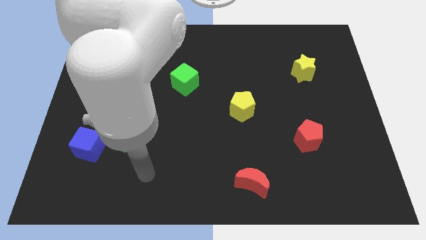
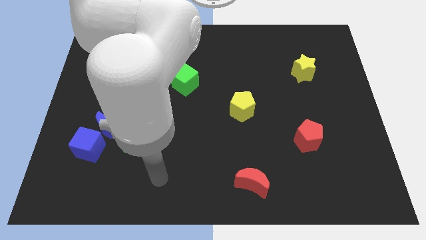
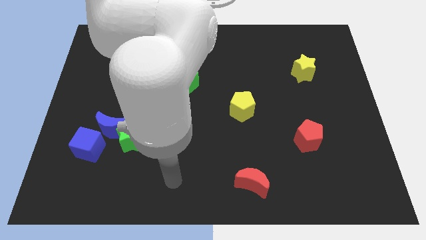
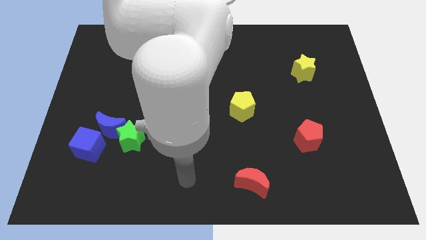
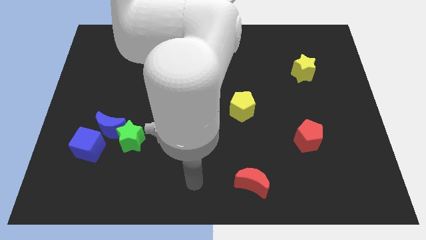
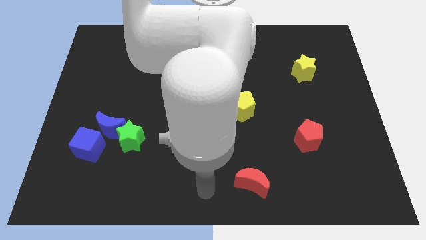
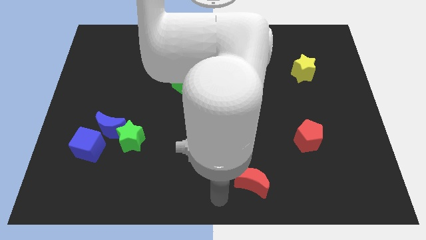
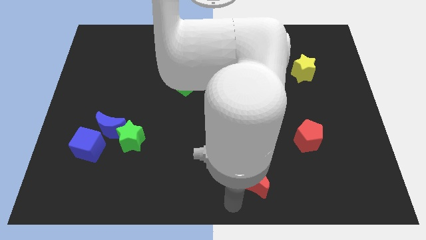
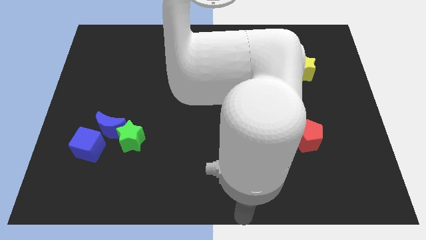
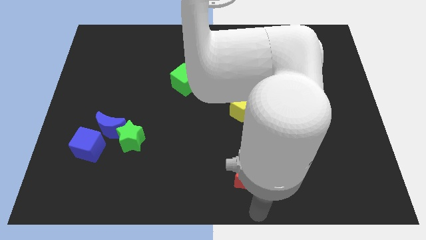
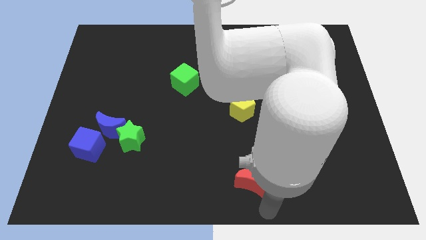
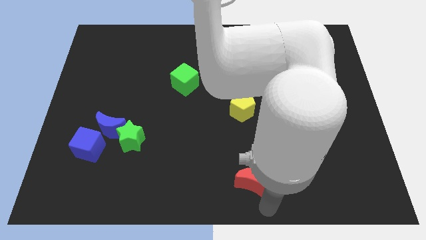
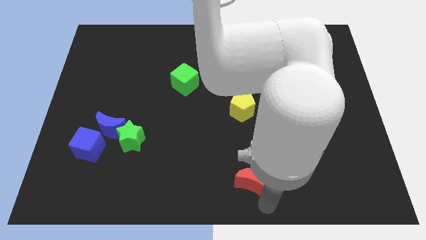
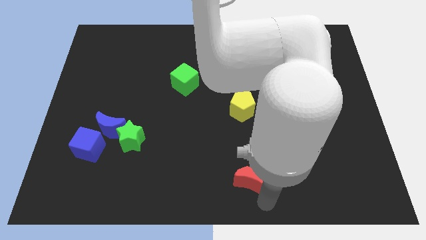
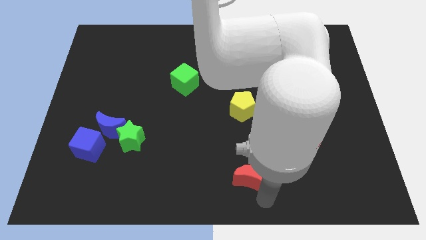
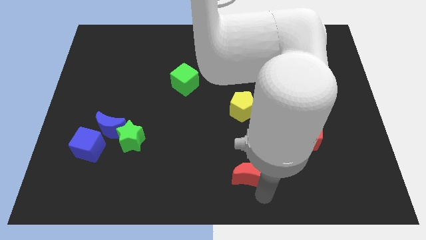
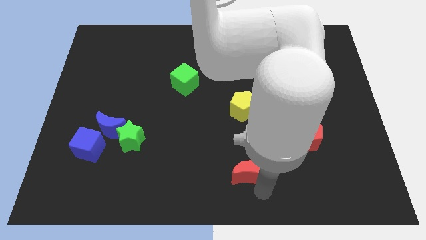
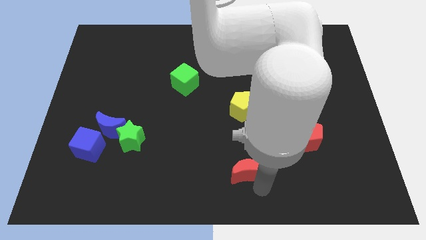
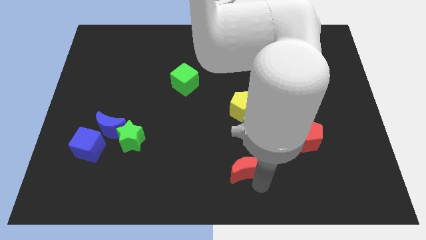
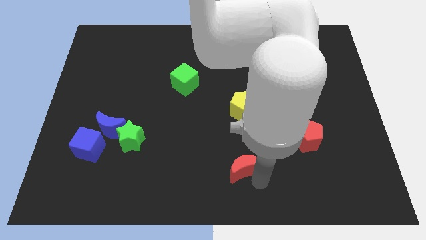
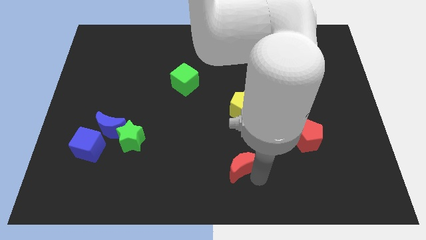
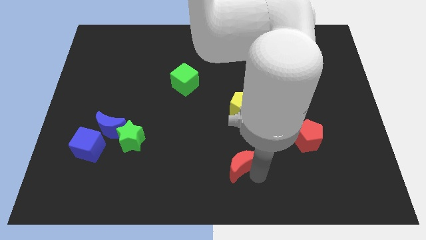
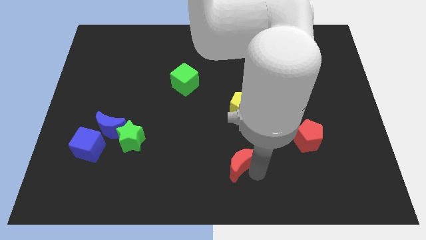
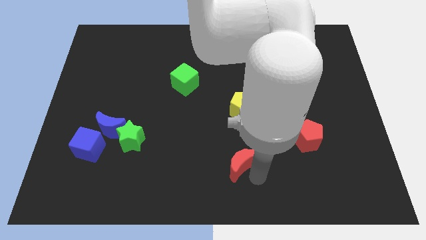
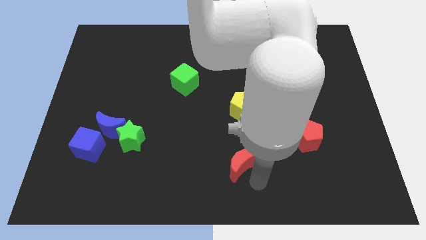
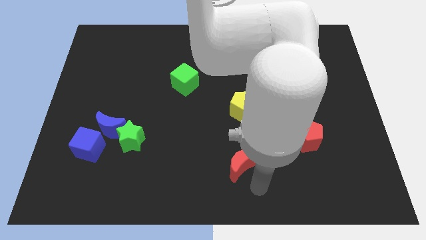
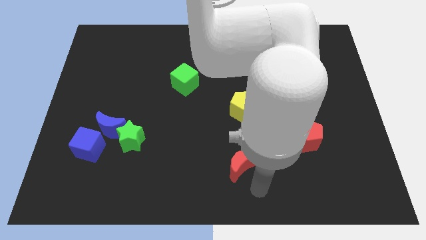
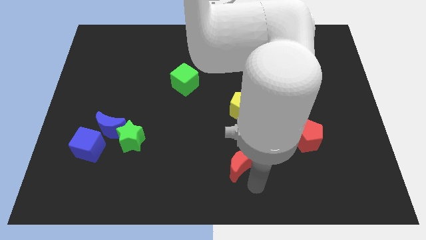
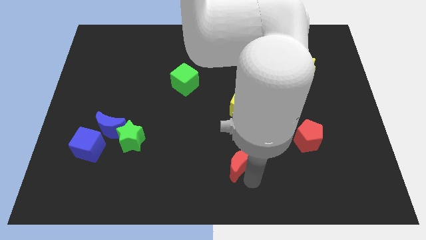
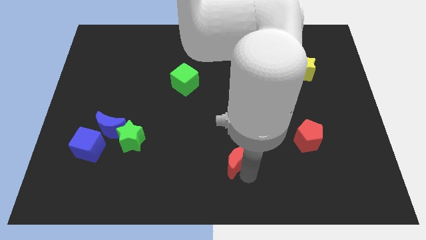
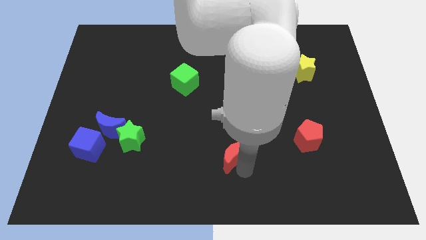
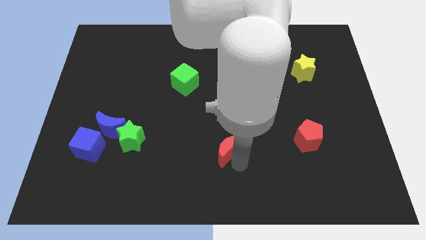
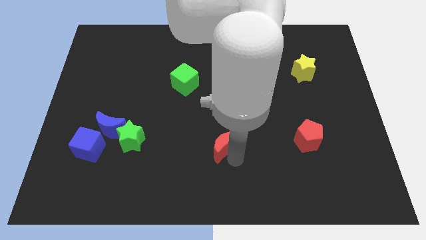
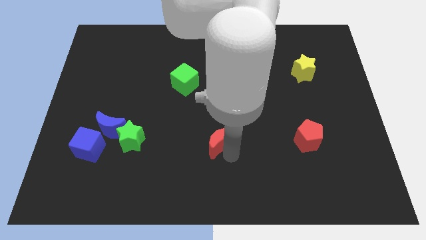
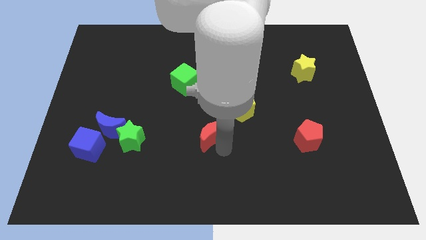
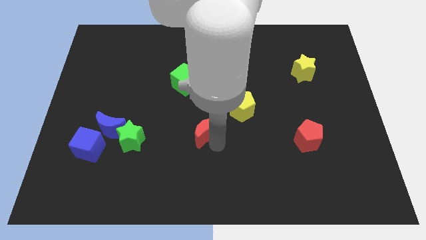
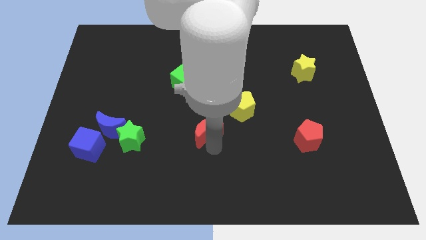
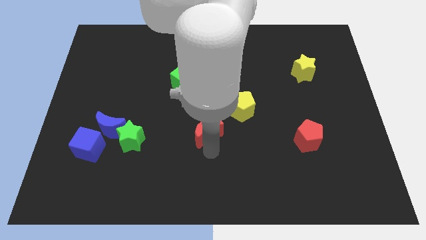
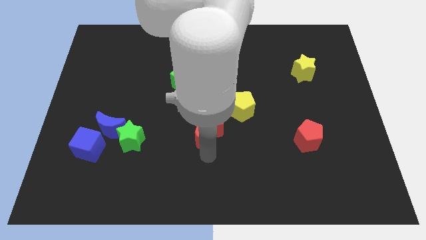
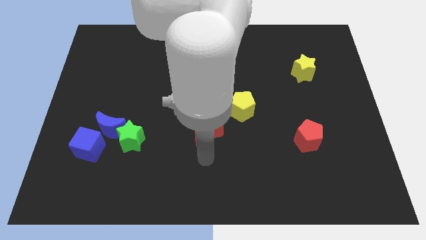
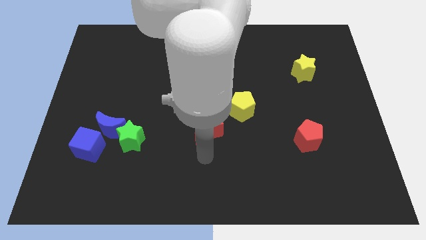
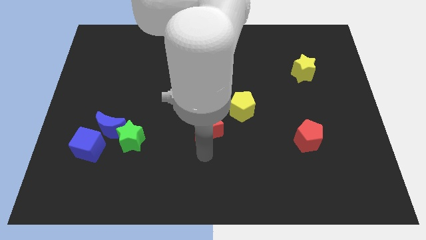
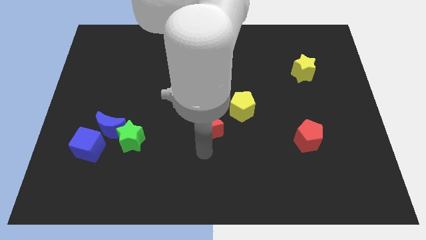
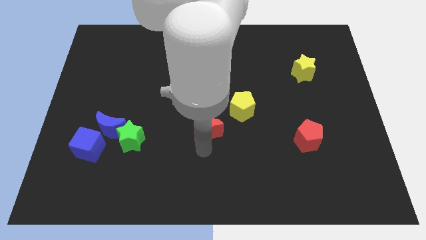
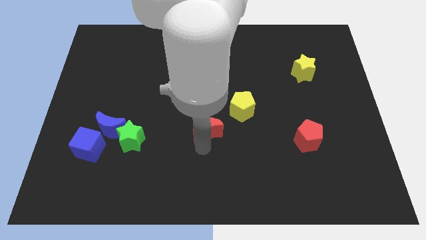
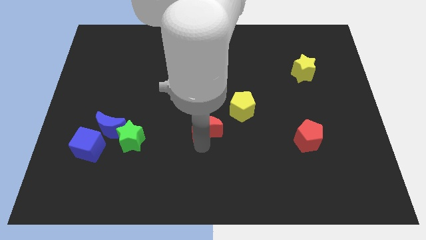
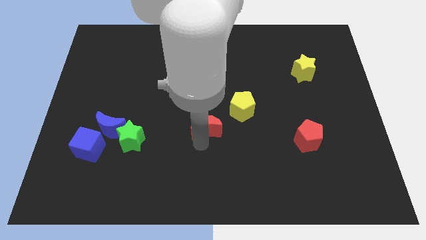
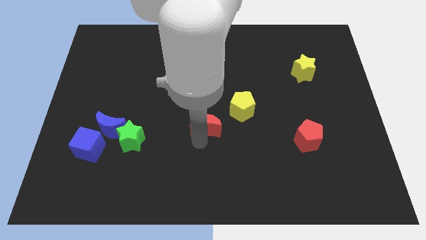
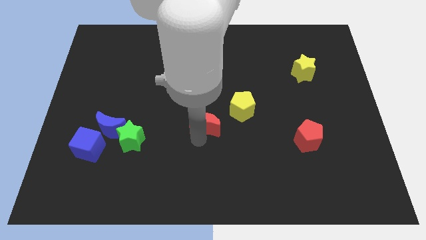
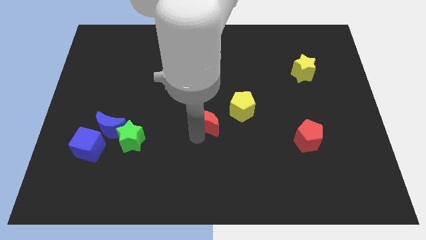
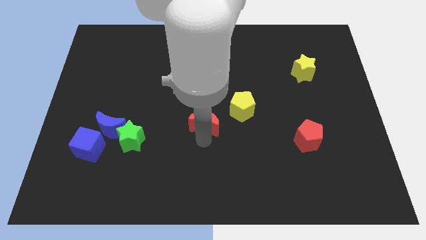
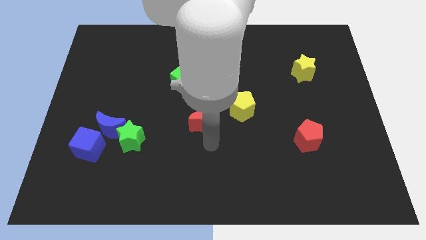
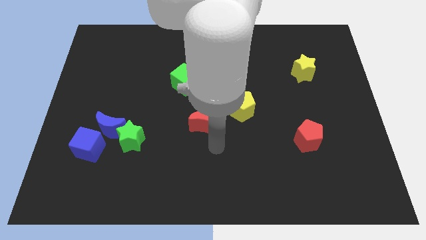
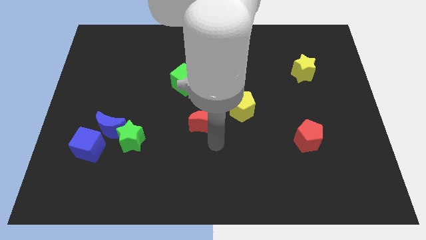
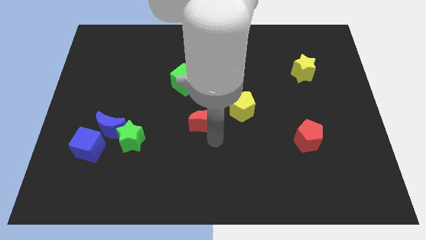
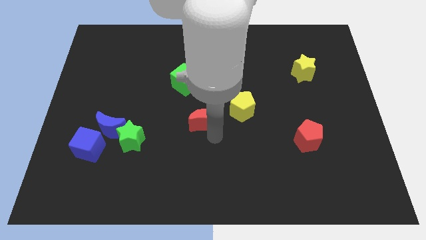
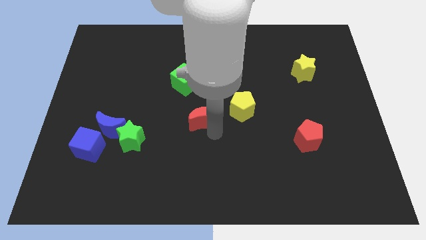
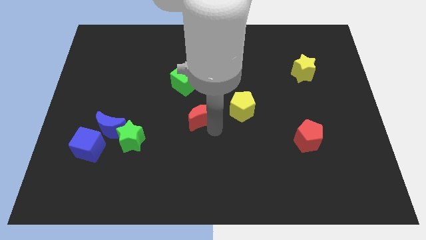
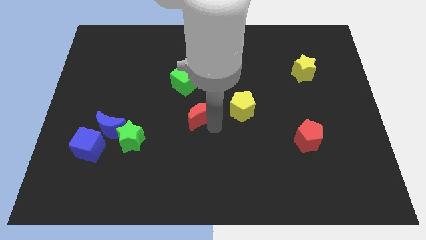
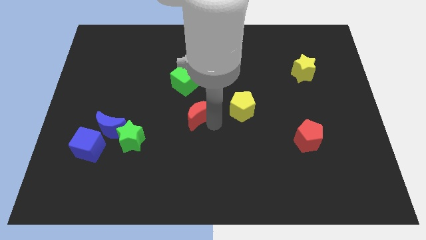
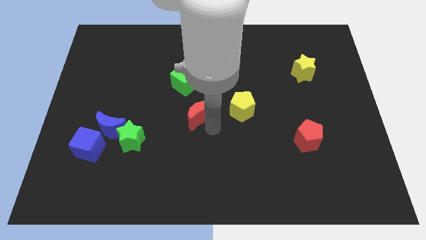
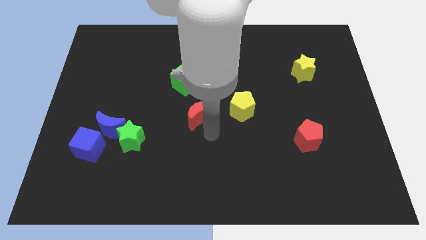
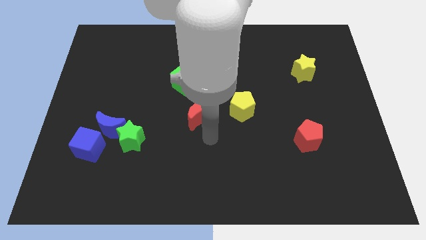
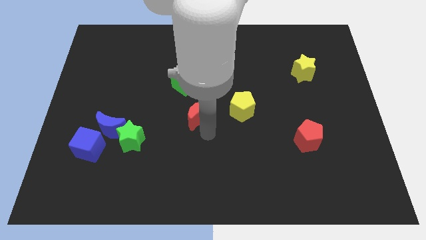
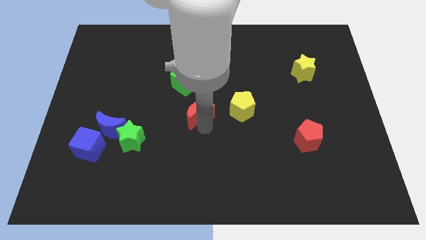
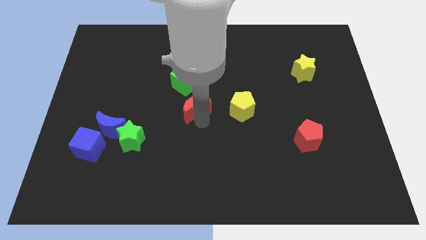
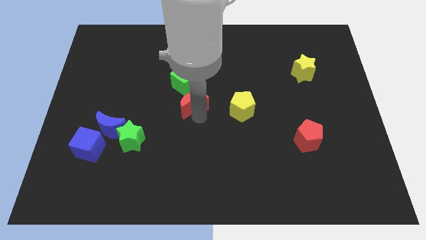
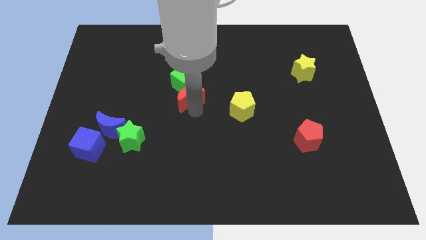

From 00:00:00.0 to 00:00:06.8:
move the red moon to the green cube

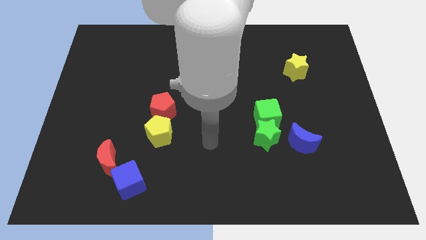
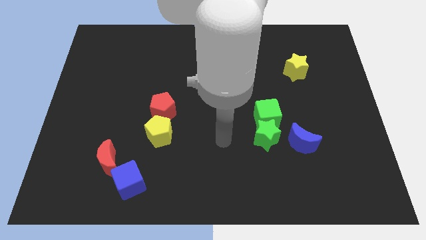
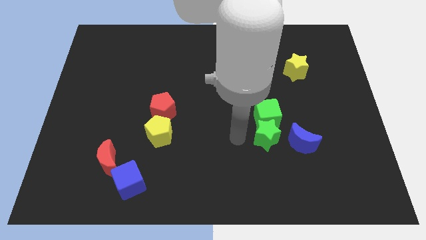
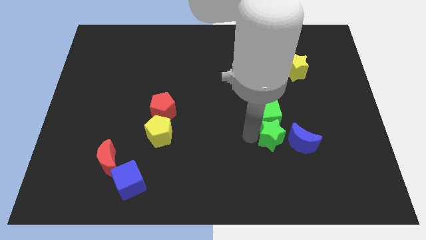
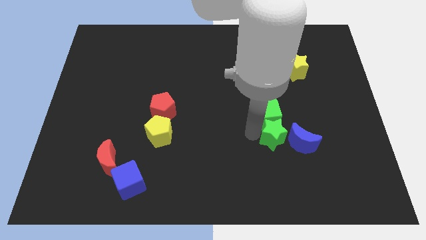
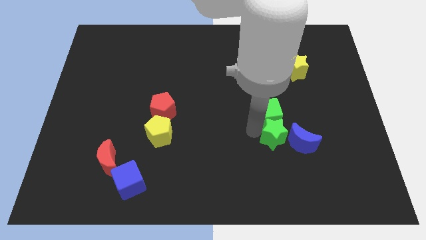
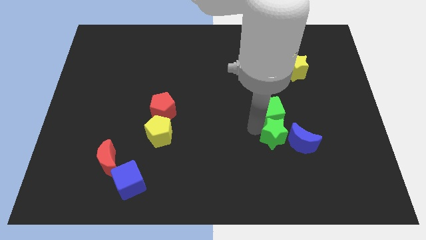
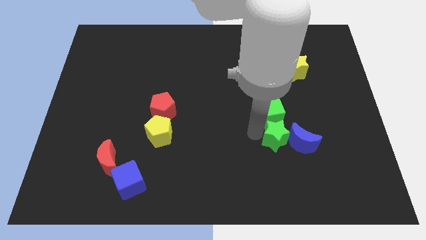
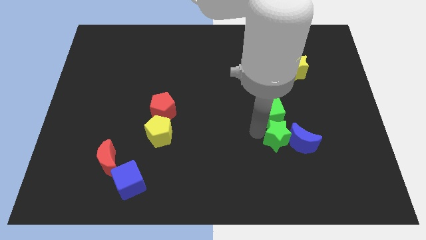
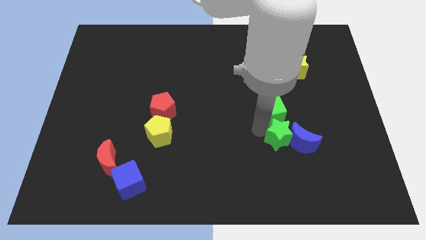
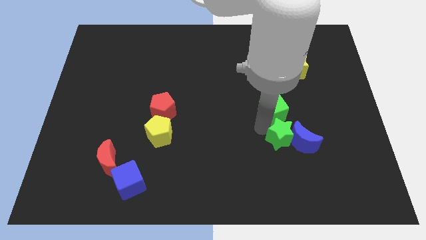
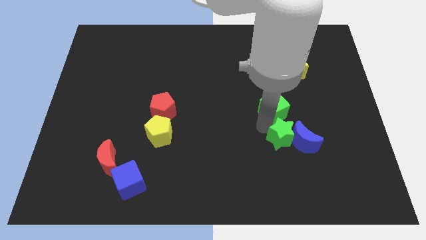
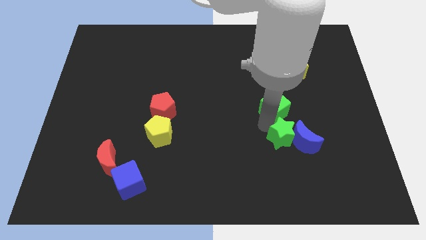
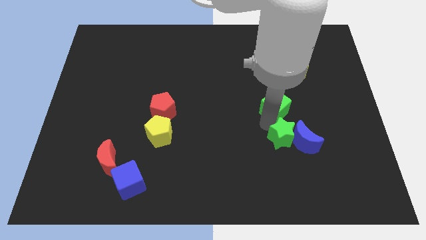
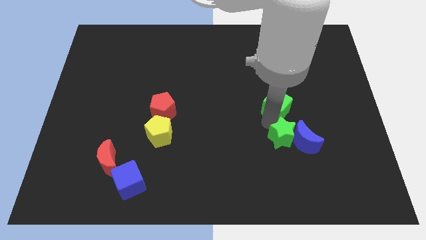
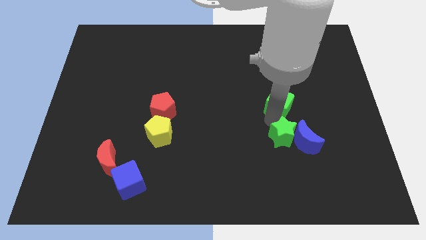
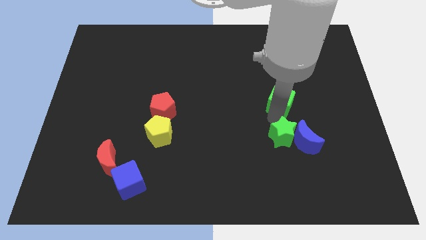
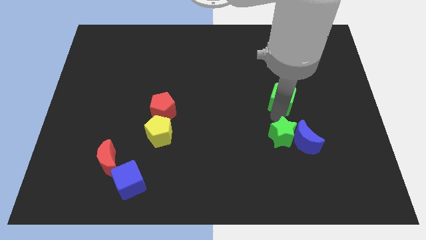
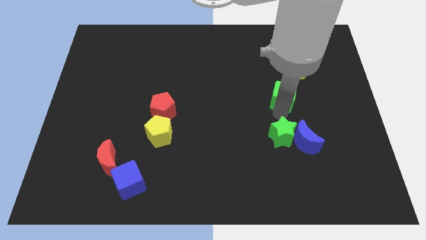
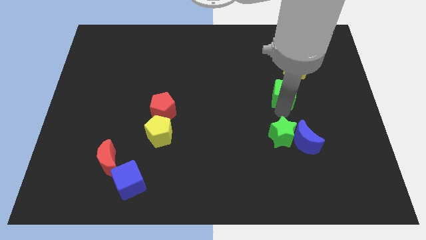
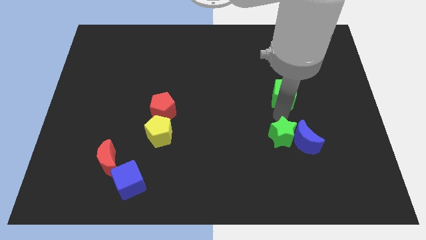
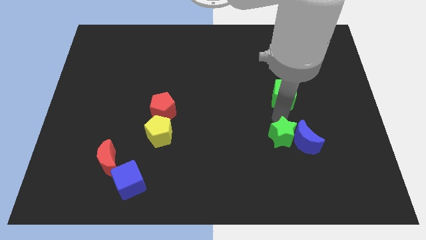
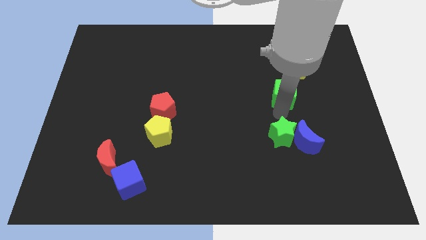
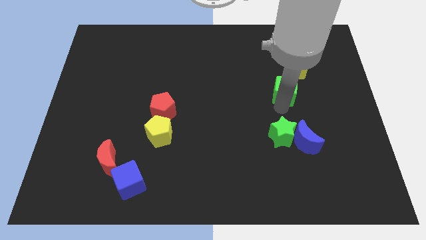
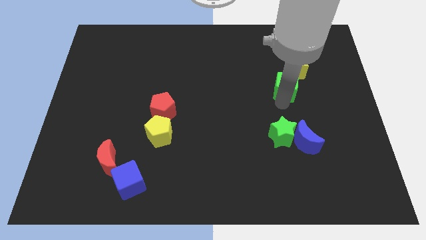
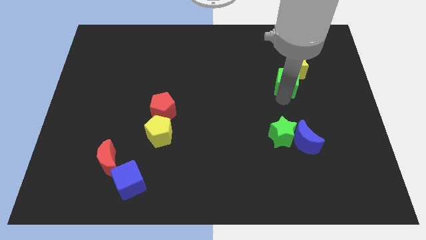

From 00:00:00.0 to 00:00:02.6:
move the green cube next to the yellow star
